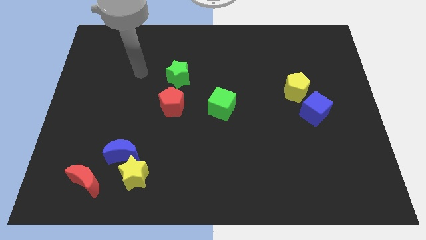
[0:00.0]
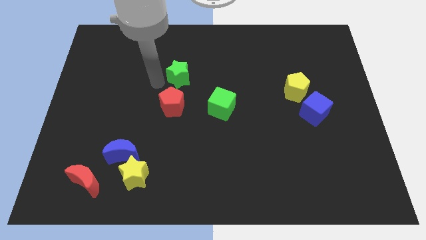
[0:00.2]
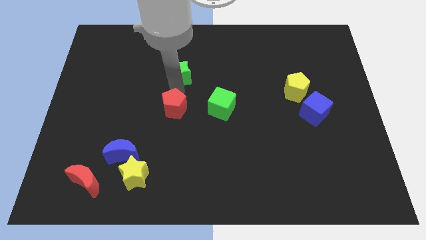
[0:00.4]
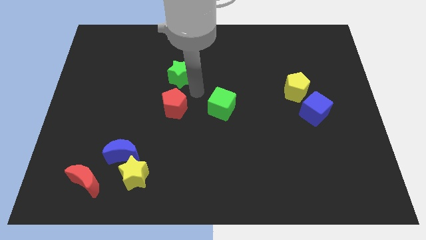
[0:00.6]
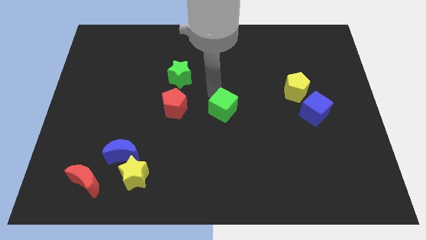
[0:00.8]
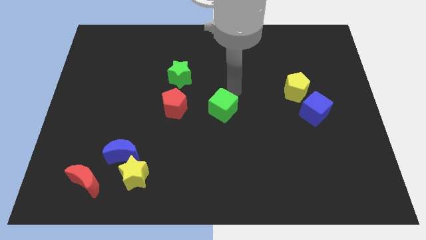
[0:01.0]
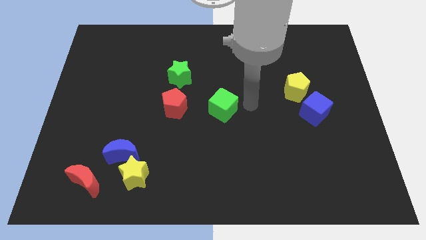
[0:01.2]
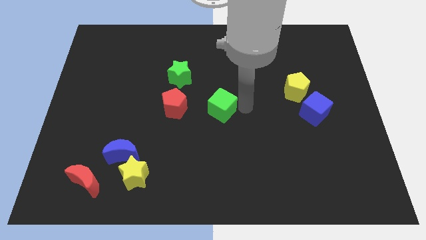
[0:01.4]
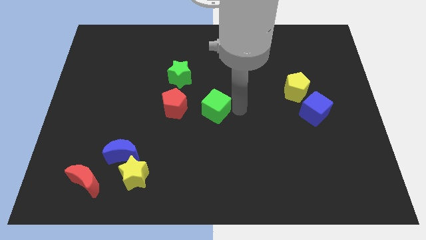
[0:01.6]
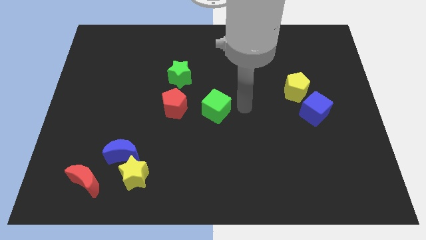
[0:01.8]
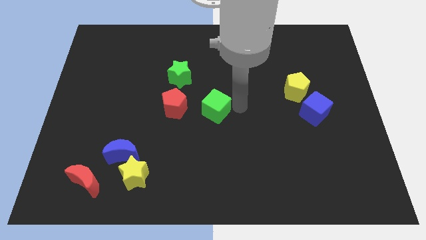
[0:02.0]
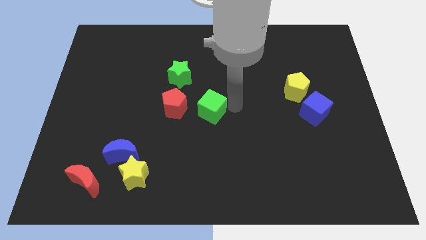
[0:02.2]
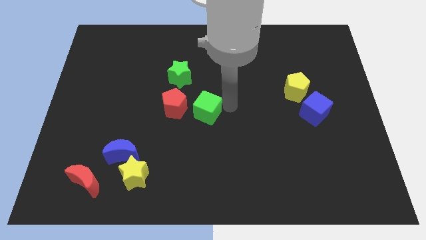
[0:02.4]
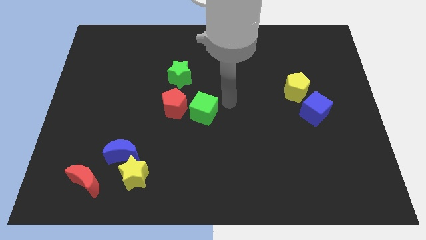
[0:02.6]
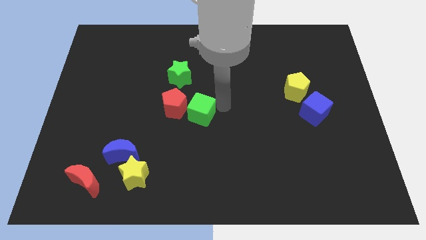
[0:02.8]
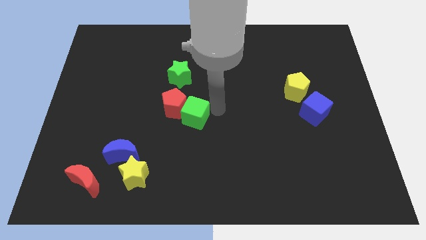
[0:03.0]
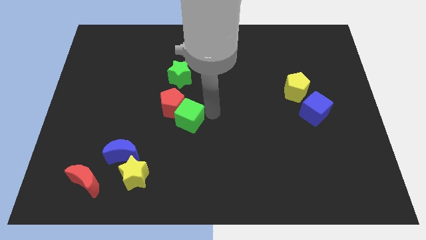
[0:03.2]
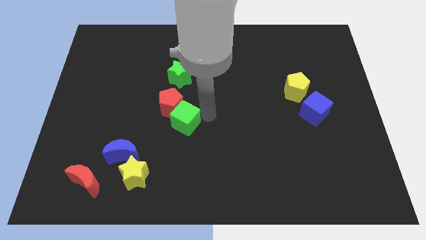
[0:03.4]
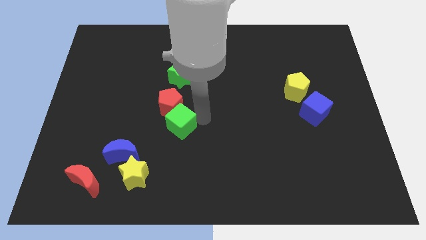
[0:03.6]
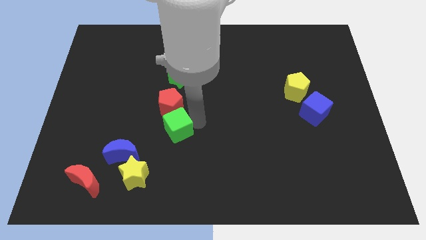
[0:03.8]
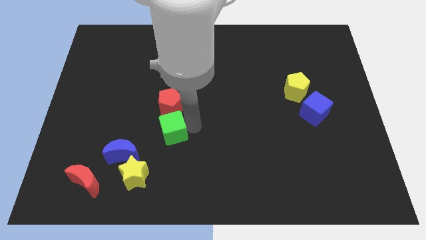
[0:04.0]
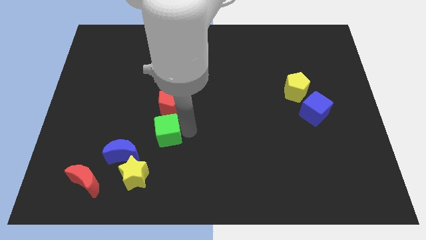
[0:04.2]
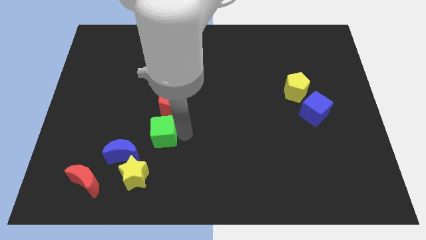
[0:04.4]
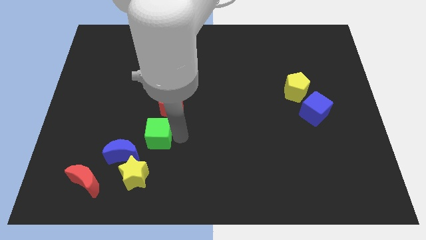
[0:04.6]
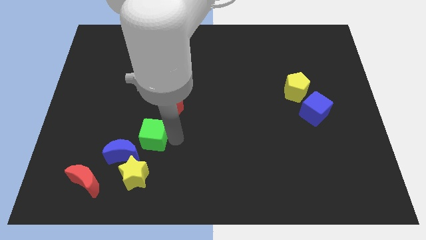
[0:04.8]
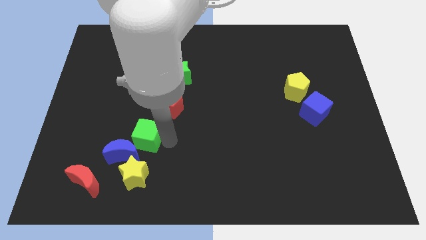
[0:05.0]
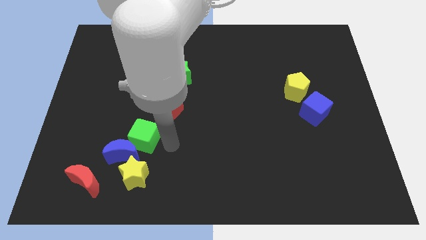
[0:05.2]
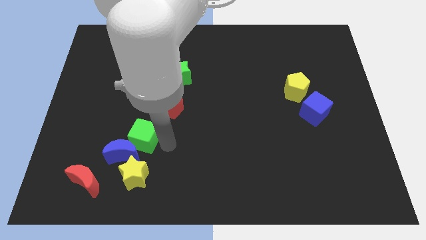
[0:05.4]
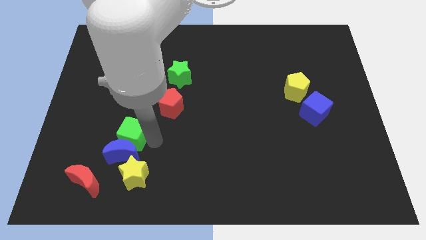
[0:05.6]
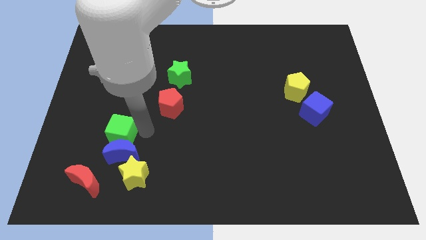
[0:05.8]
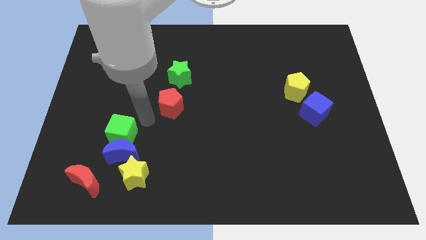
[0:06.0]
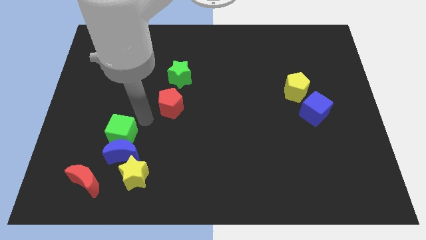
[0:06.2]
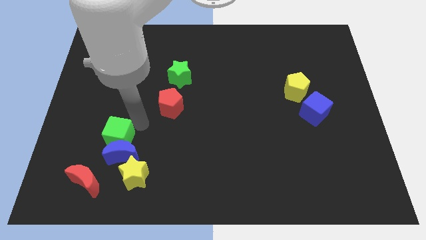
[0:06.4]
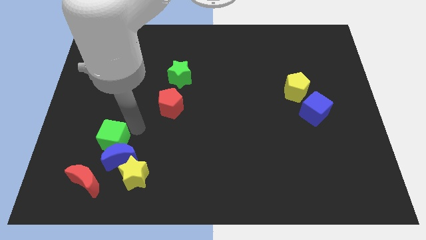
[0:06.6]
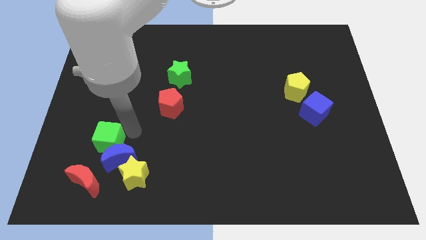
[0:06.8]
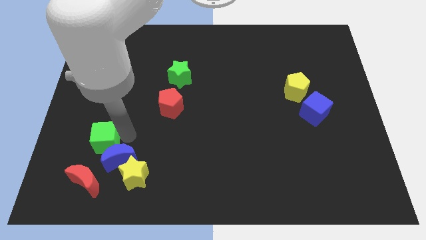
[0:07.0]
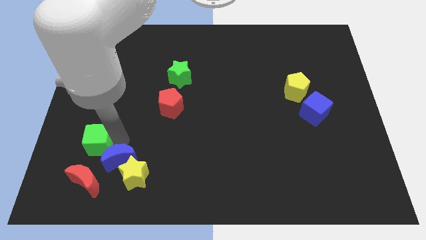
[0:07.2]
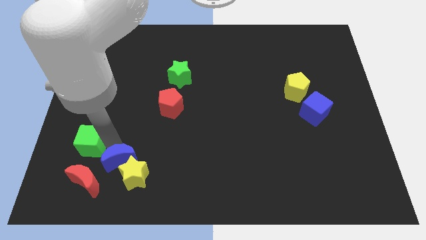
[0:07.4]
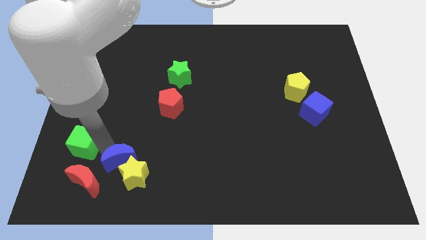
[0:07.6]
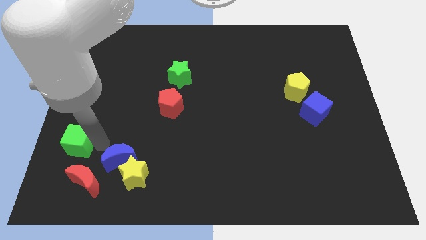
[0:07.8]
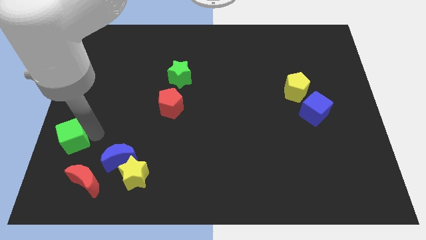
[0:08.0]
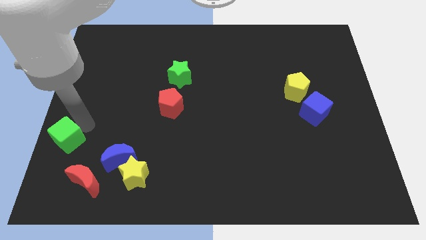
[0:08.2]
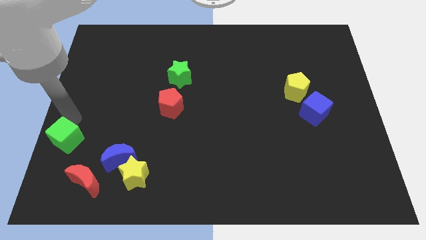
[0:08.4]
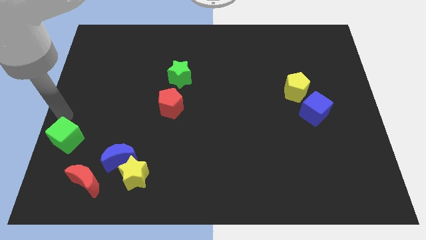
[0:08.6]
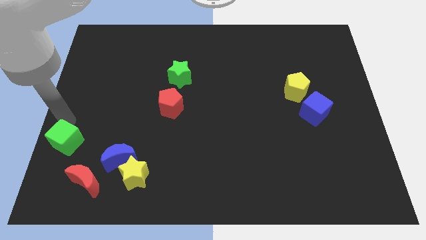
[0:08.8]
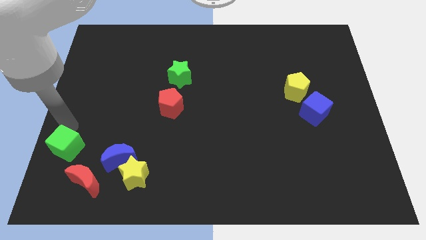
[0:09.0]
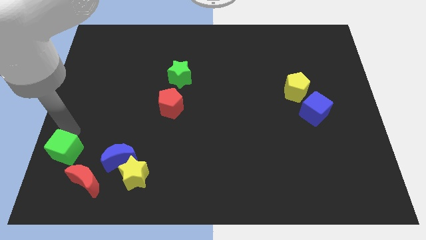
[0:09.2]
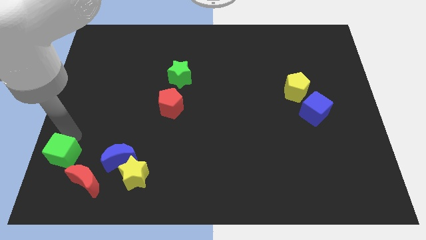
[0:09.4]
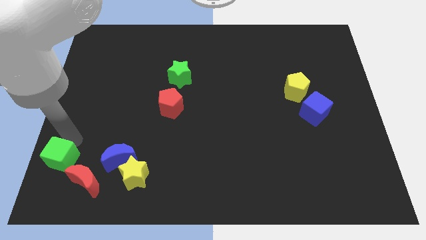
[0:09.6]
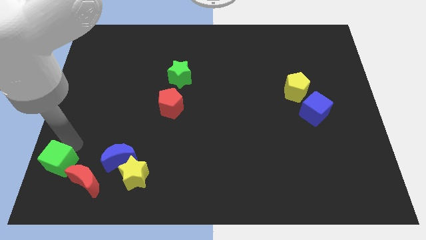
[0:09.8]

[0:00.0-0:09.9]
push the green cube to the lower left corner

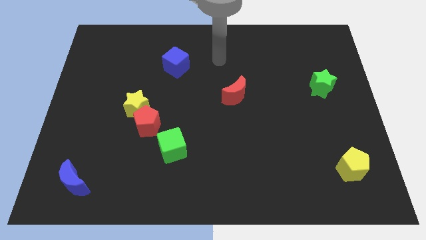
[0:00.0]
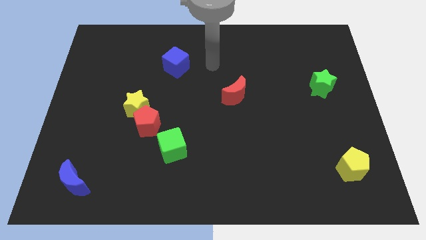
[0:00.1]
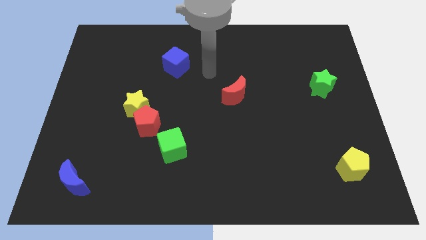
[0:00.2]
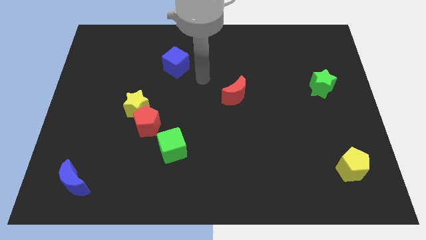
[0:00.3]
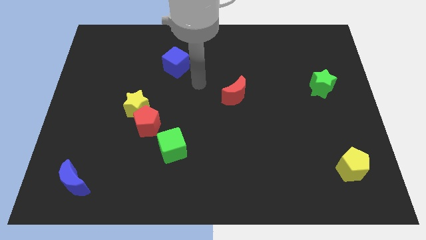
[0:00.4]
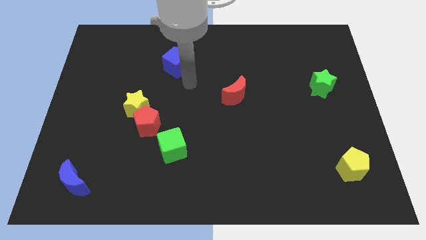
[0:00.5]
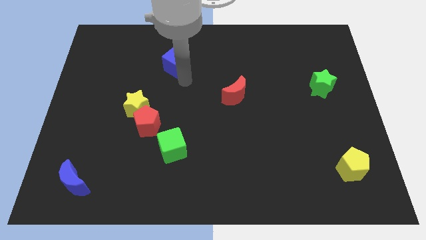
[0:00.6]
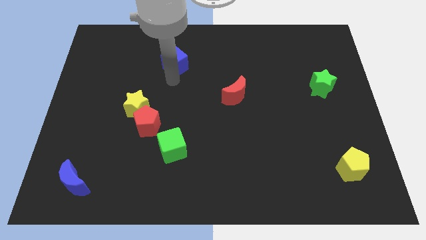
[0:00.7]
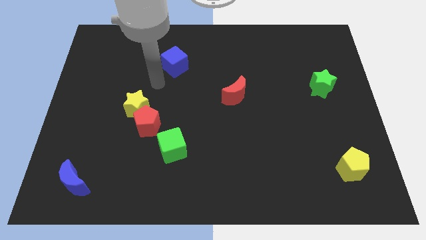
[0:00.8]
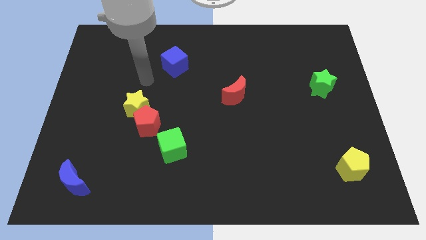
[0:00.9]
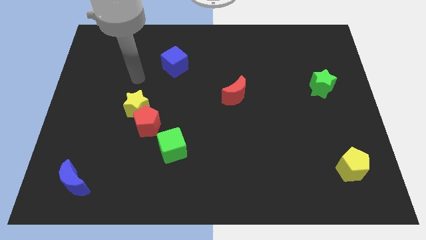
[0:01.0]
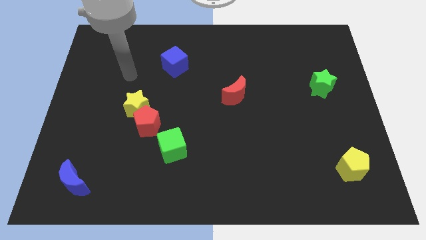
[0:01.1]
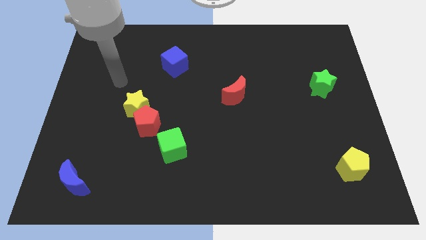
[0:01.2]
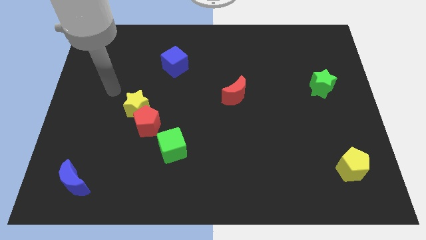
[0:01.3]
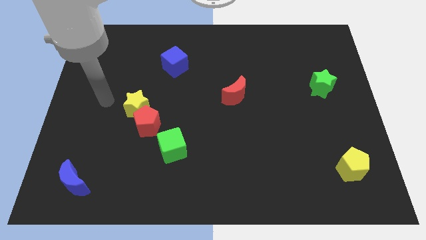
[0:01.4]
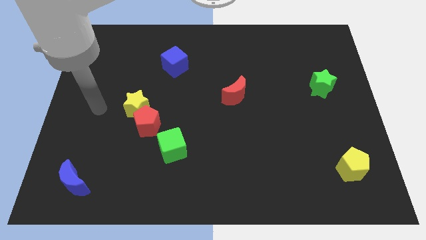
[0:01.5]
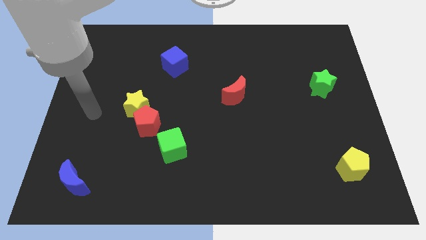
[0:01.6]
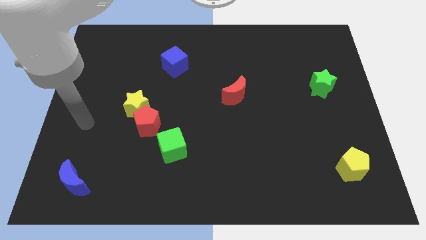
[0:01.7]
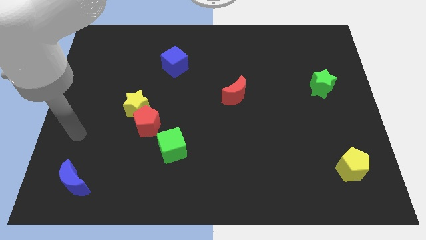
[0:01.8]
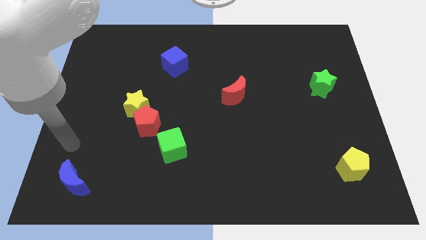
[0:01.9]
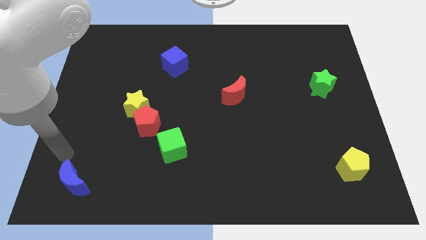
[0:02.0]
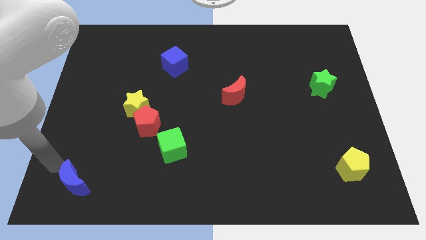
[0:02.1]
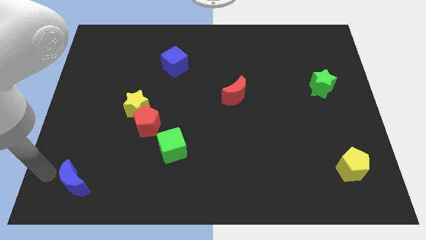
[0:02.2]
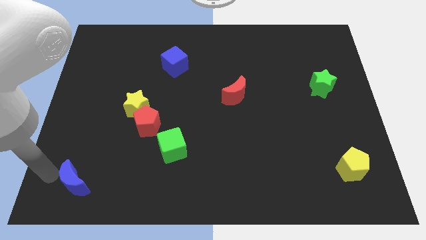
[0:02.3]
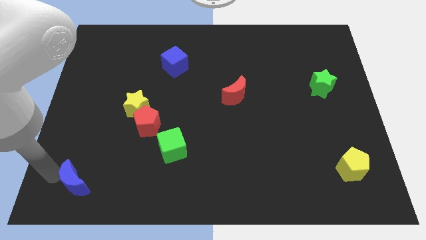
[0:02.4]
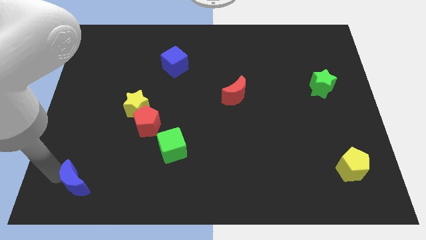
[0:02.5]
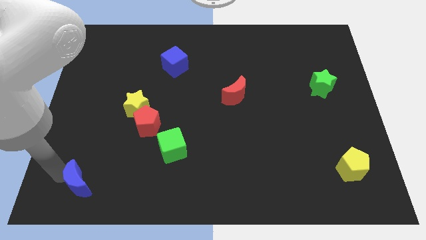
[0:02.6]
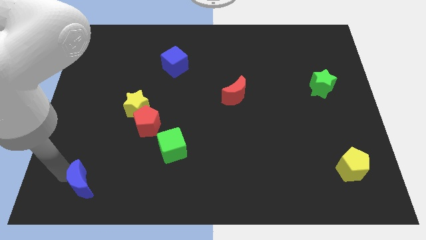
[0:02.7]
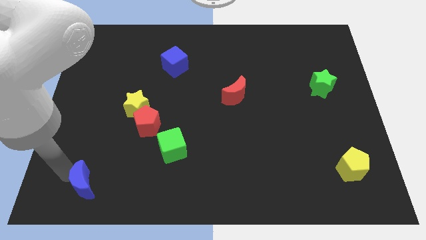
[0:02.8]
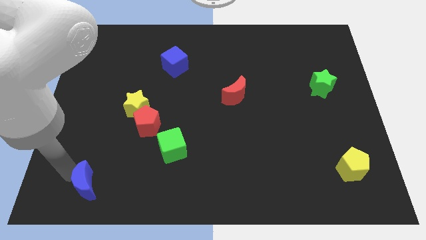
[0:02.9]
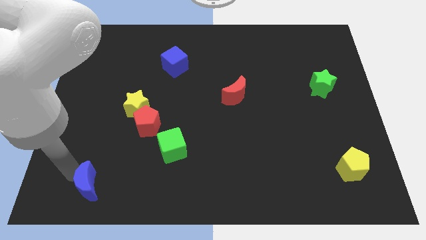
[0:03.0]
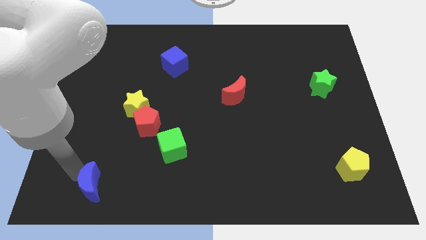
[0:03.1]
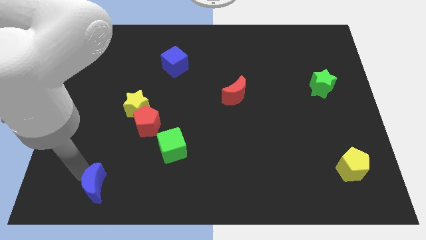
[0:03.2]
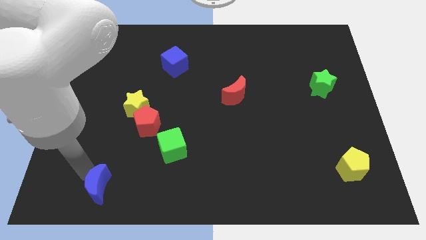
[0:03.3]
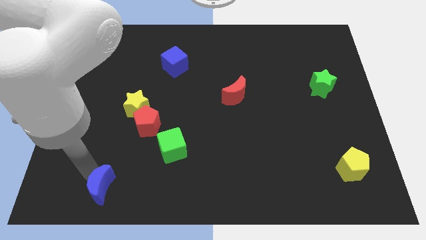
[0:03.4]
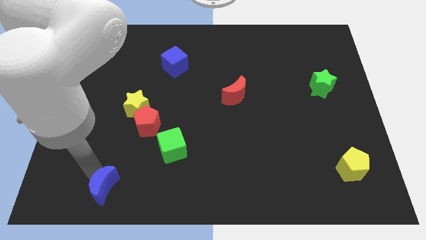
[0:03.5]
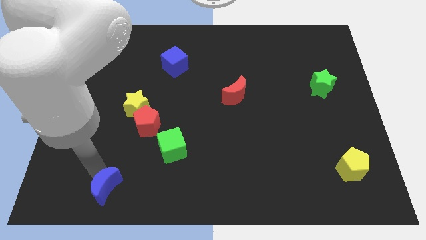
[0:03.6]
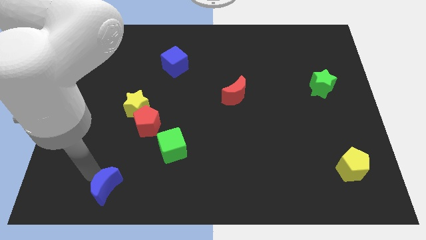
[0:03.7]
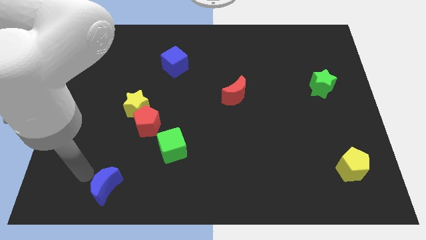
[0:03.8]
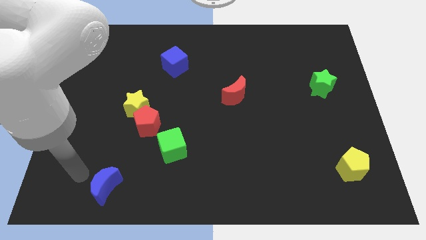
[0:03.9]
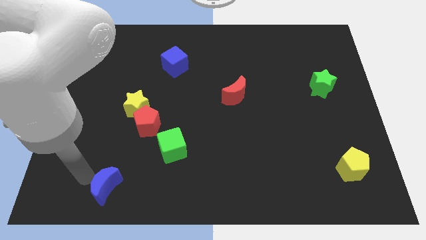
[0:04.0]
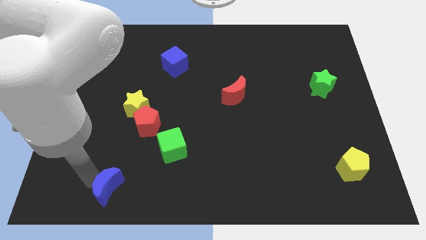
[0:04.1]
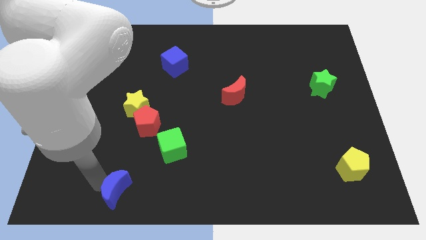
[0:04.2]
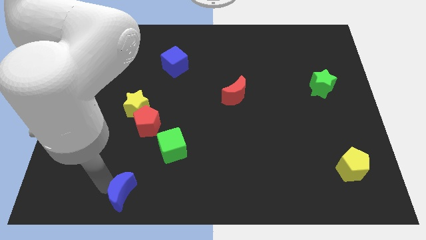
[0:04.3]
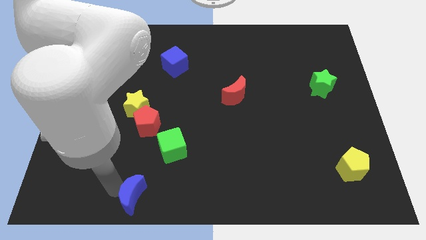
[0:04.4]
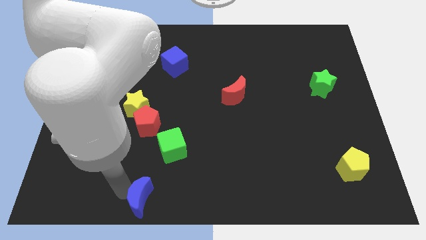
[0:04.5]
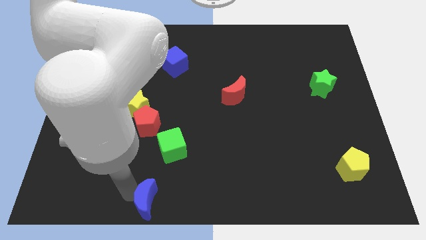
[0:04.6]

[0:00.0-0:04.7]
move the blue moon to the bottom side
